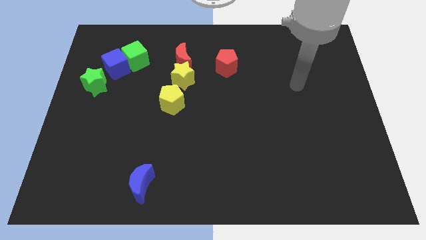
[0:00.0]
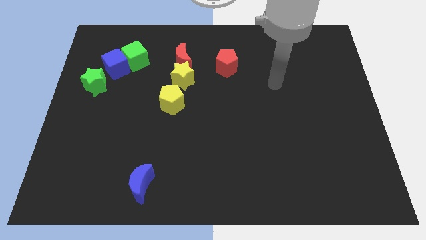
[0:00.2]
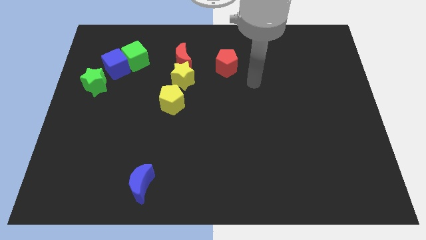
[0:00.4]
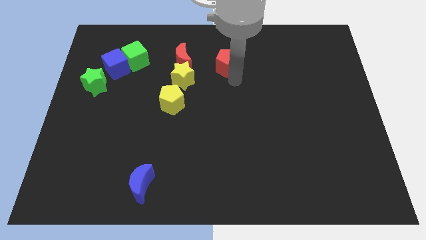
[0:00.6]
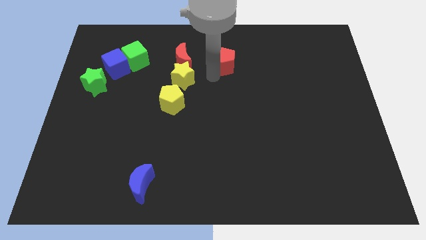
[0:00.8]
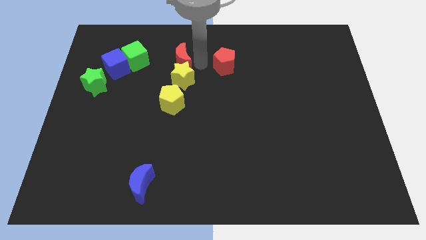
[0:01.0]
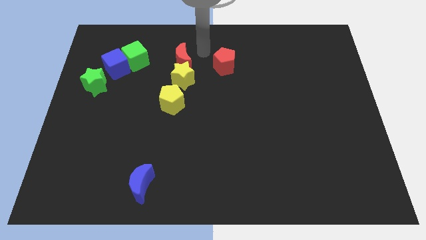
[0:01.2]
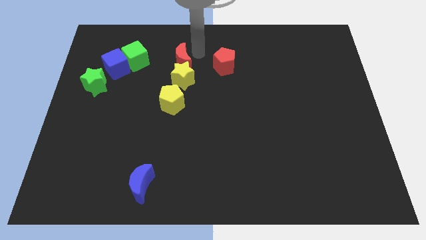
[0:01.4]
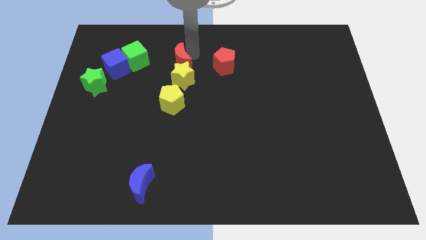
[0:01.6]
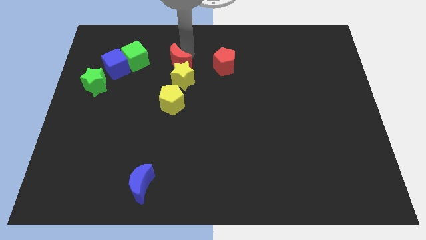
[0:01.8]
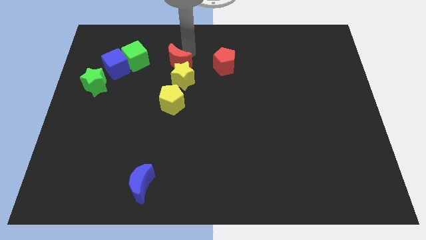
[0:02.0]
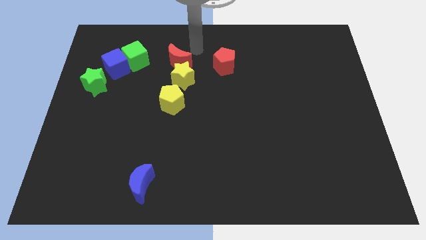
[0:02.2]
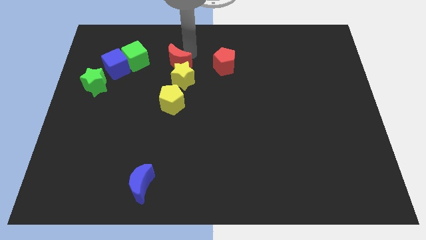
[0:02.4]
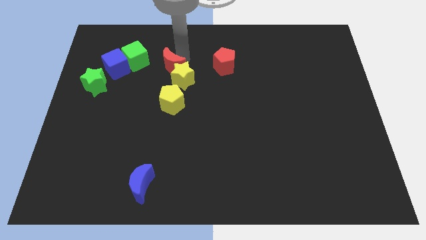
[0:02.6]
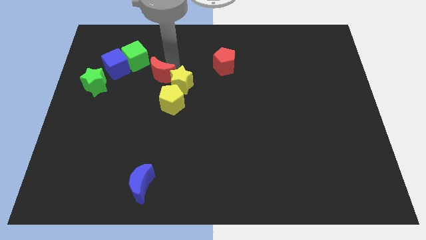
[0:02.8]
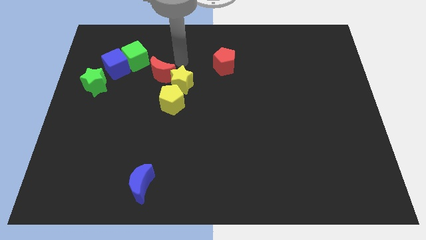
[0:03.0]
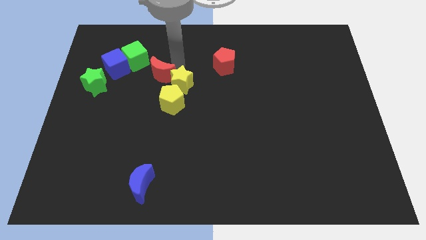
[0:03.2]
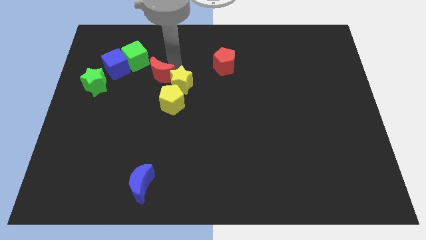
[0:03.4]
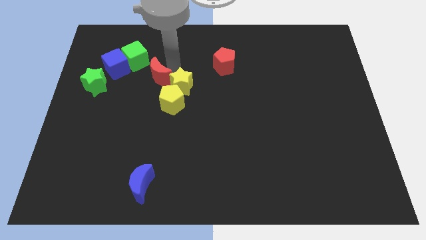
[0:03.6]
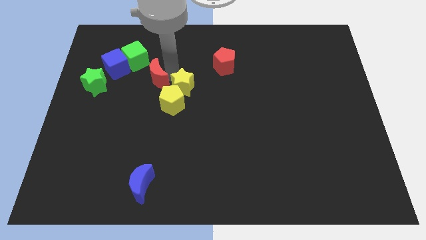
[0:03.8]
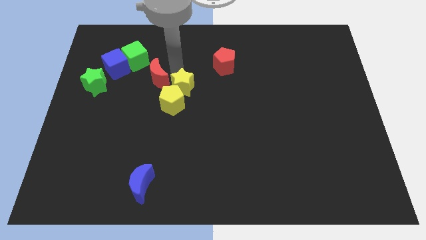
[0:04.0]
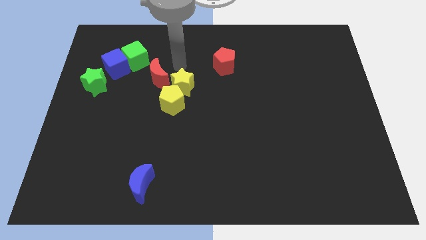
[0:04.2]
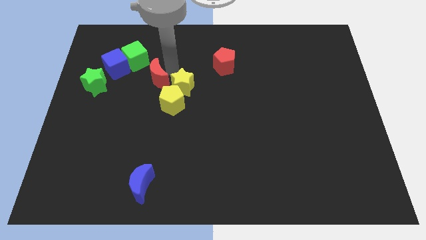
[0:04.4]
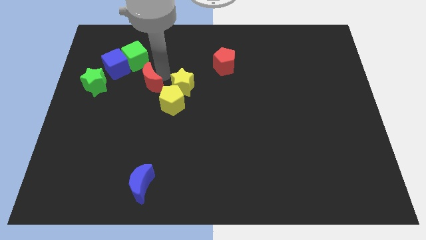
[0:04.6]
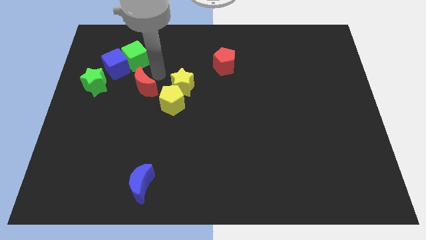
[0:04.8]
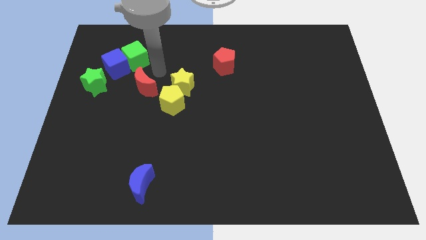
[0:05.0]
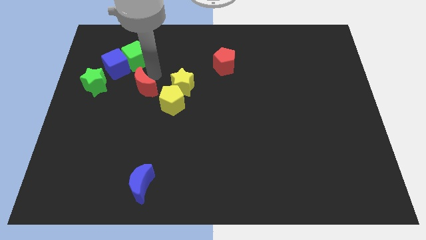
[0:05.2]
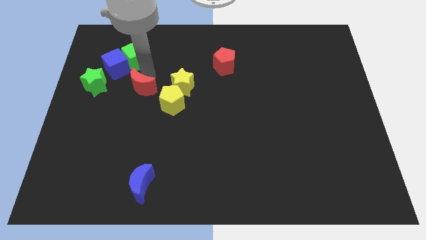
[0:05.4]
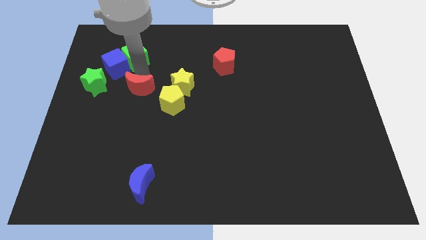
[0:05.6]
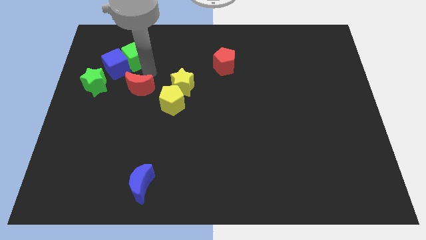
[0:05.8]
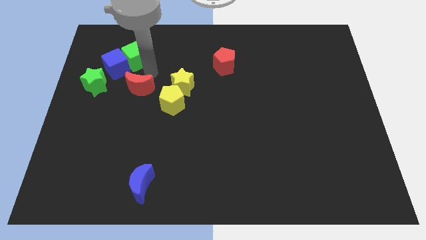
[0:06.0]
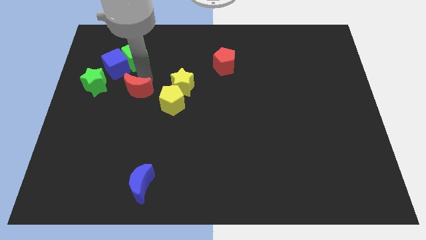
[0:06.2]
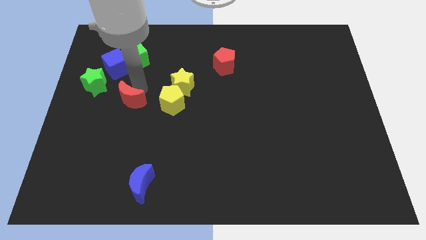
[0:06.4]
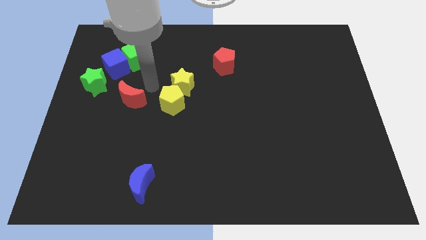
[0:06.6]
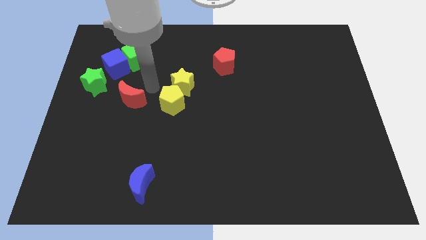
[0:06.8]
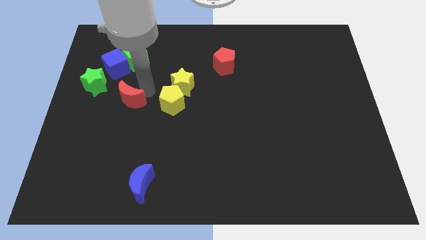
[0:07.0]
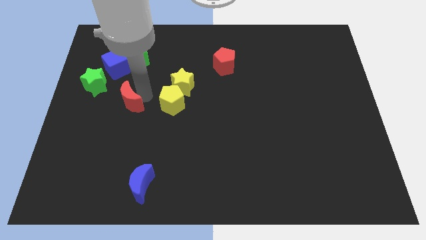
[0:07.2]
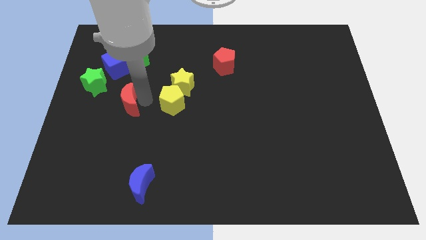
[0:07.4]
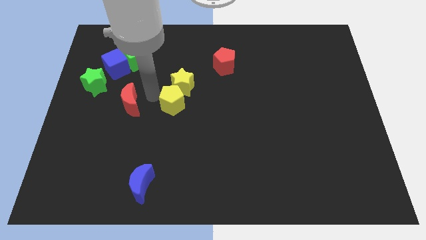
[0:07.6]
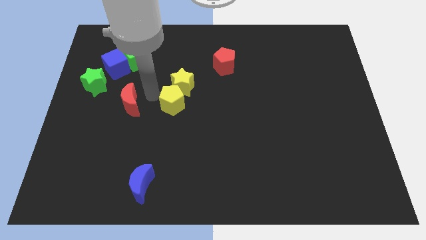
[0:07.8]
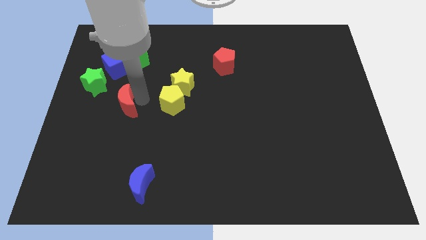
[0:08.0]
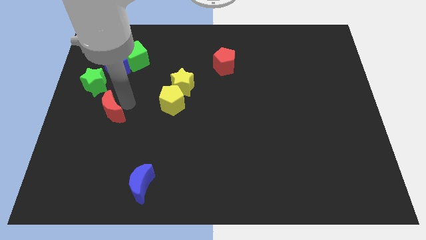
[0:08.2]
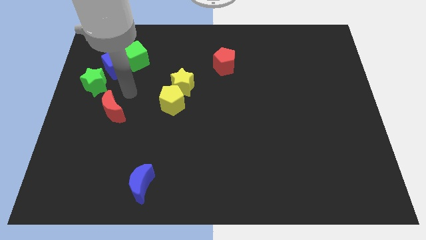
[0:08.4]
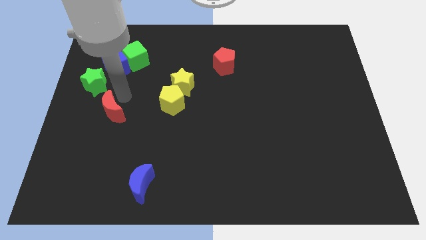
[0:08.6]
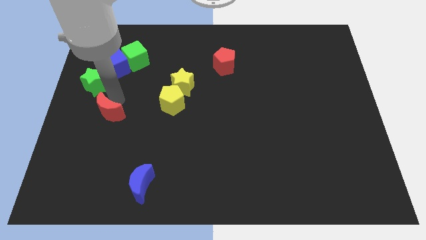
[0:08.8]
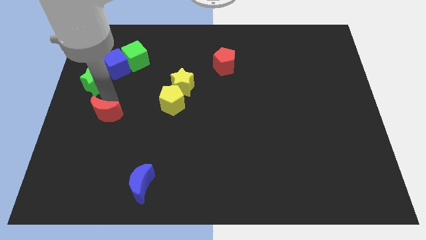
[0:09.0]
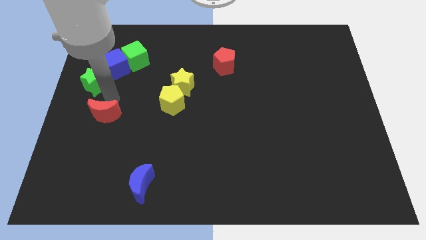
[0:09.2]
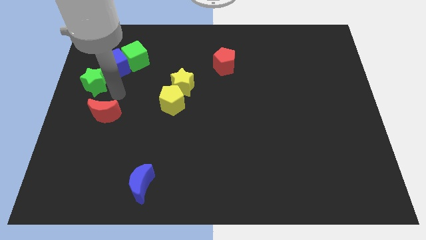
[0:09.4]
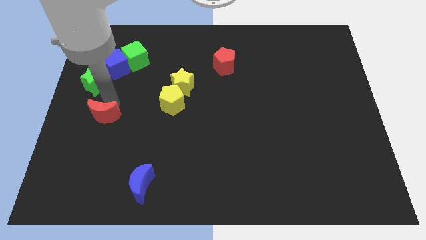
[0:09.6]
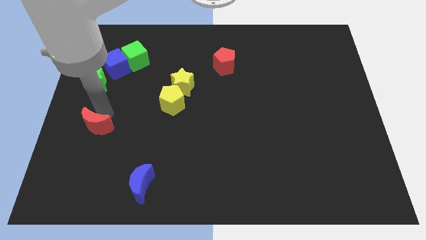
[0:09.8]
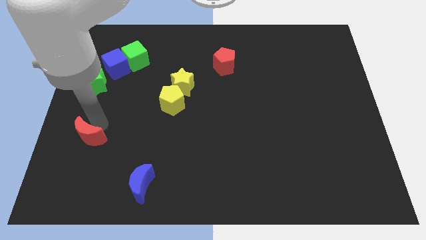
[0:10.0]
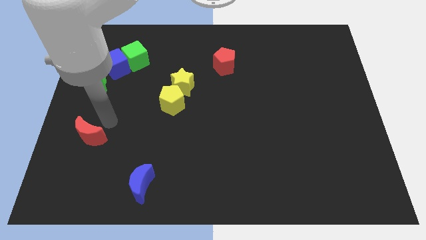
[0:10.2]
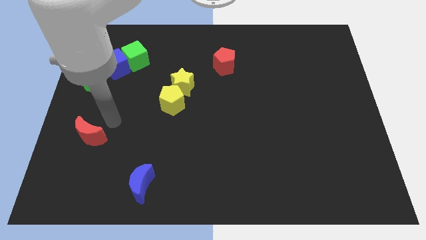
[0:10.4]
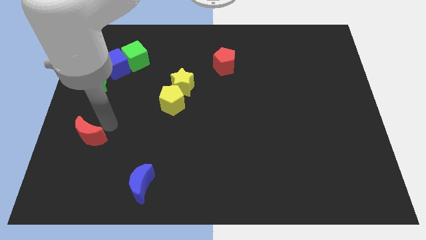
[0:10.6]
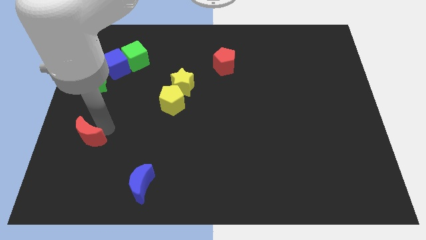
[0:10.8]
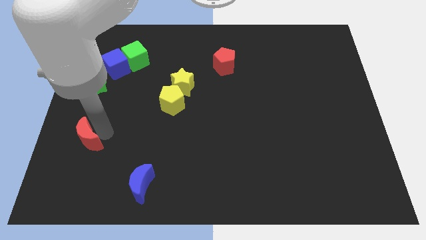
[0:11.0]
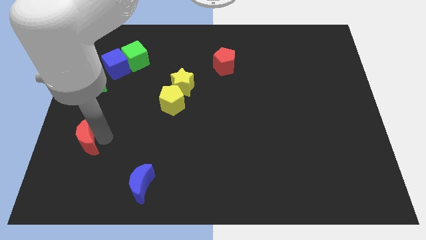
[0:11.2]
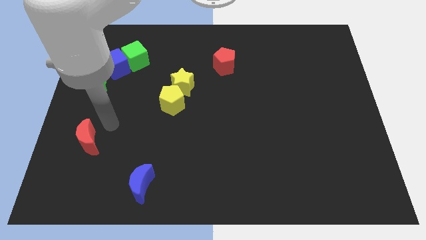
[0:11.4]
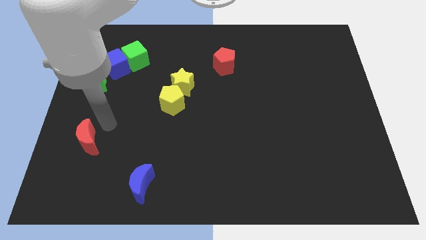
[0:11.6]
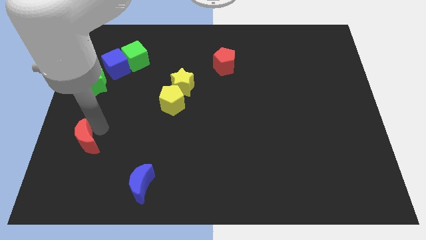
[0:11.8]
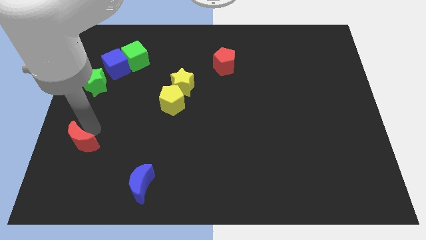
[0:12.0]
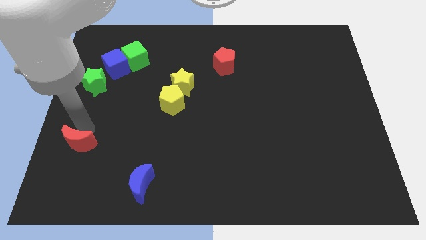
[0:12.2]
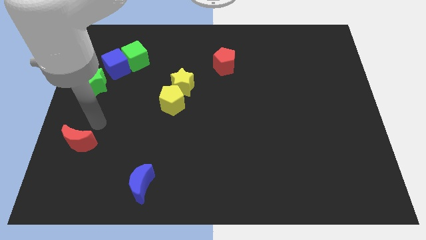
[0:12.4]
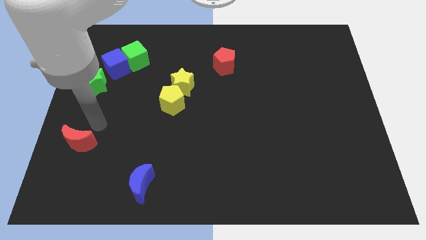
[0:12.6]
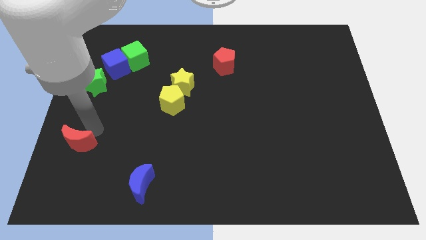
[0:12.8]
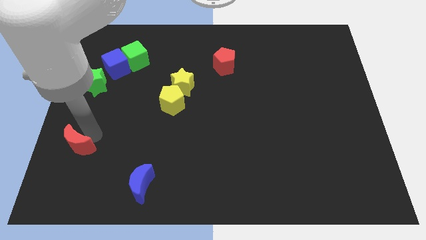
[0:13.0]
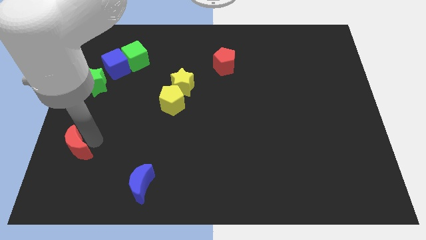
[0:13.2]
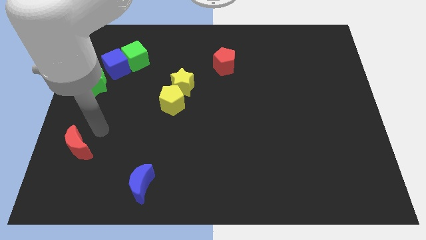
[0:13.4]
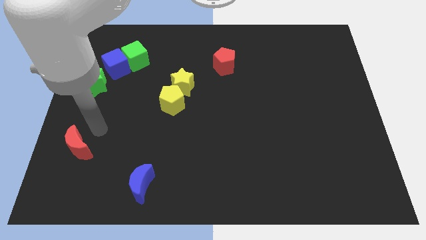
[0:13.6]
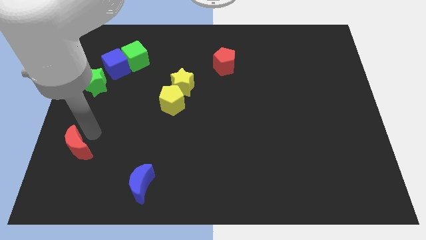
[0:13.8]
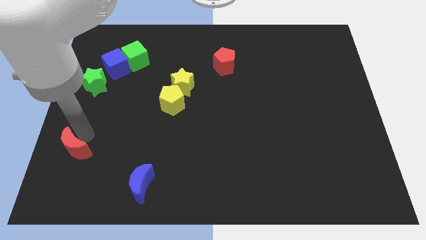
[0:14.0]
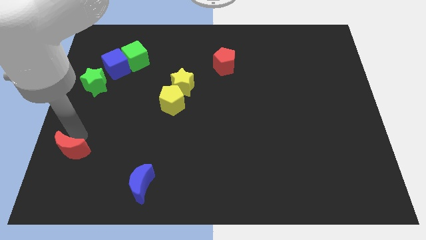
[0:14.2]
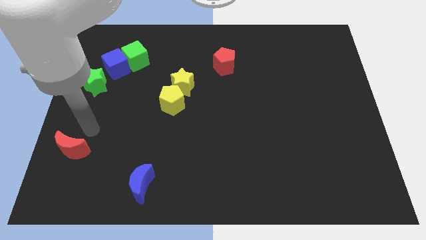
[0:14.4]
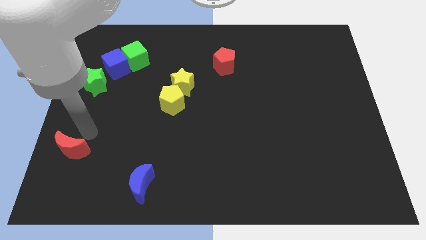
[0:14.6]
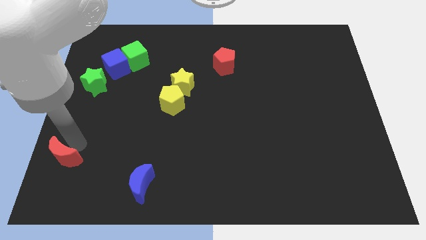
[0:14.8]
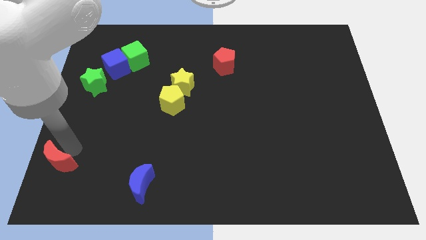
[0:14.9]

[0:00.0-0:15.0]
put the red moon to the lower left corner

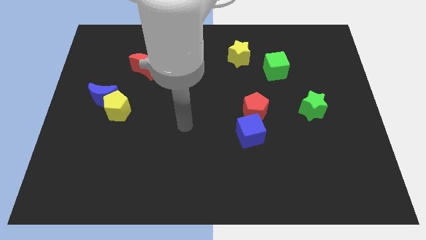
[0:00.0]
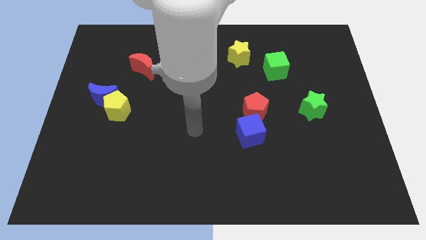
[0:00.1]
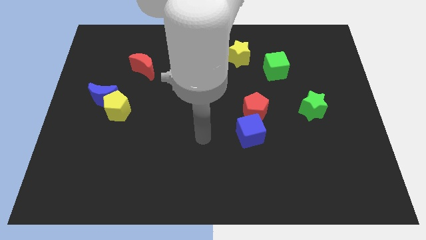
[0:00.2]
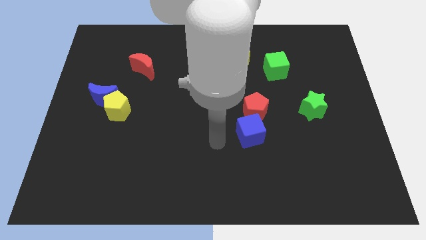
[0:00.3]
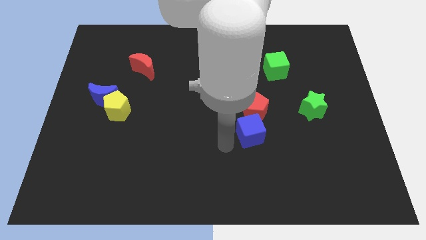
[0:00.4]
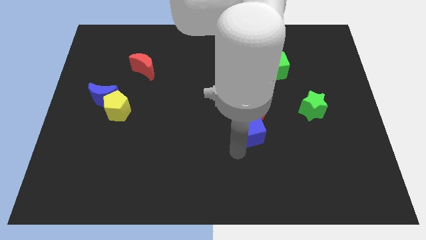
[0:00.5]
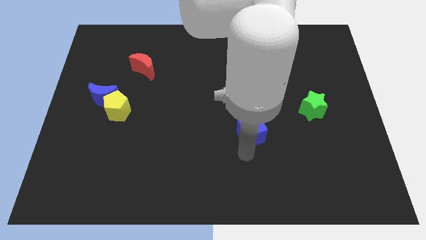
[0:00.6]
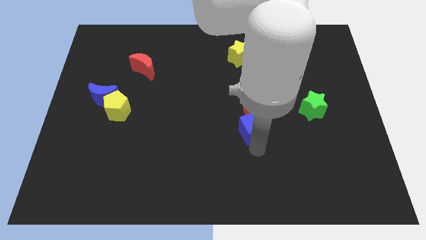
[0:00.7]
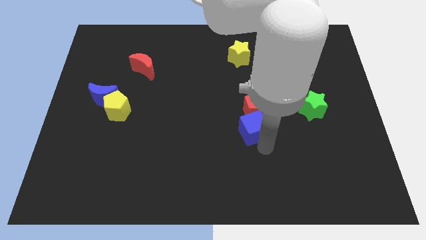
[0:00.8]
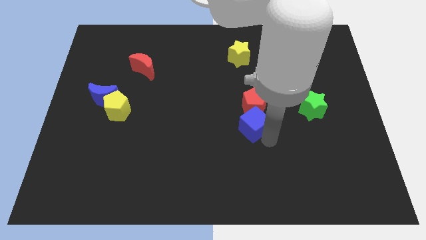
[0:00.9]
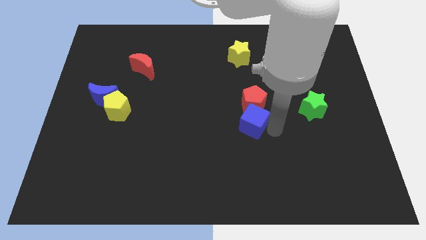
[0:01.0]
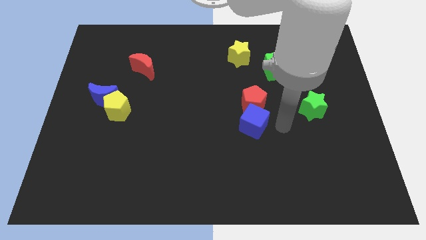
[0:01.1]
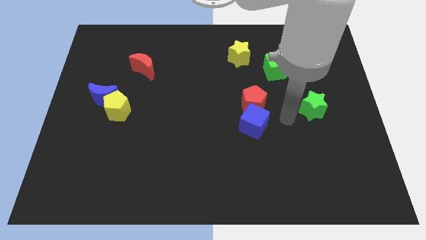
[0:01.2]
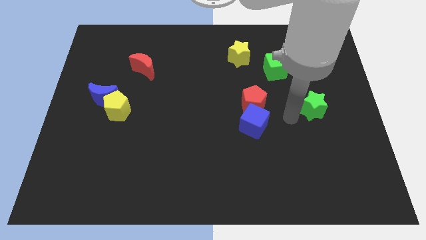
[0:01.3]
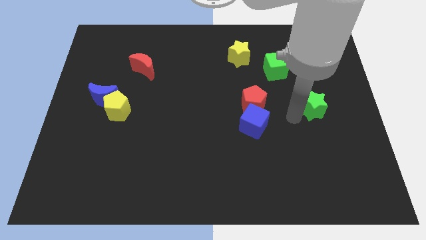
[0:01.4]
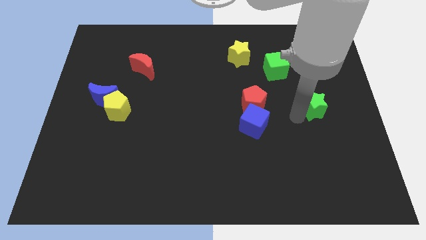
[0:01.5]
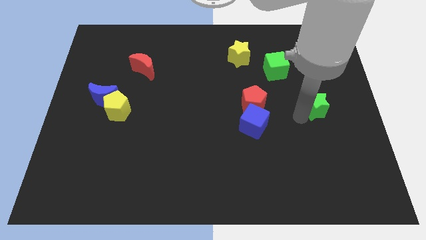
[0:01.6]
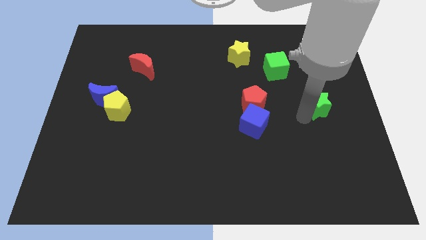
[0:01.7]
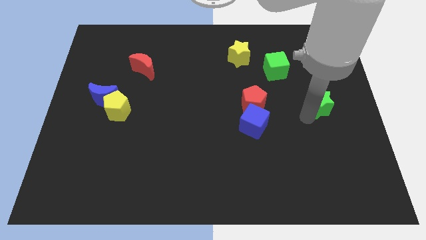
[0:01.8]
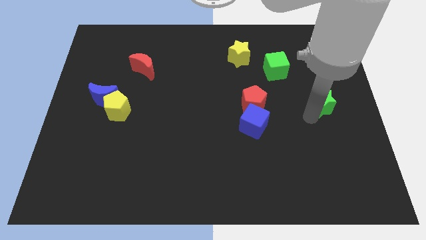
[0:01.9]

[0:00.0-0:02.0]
put the green star to the right side of the board
